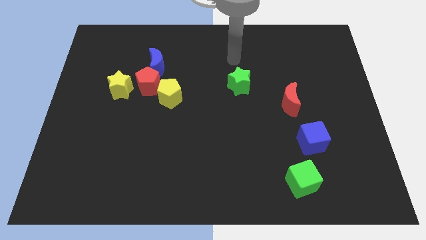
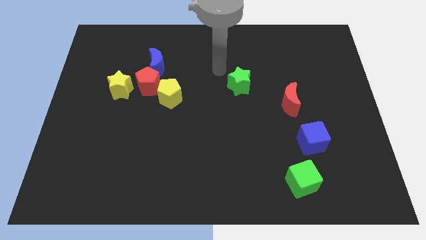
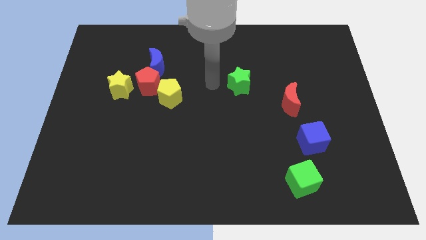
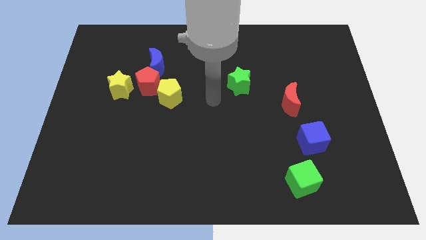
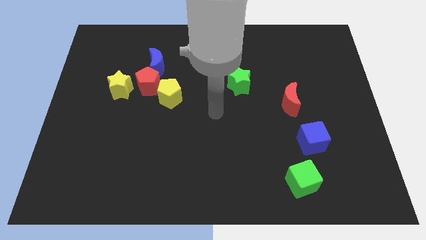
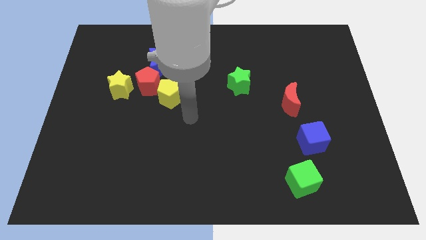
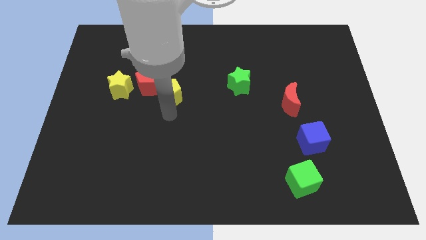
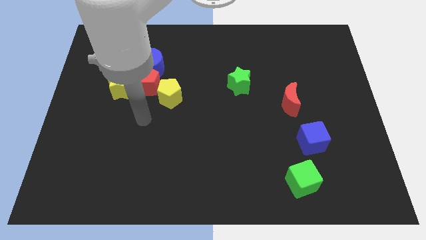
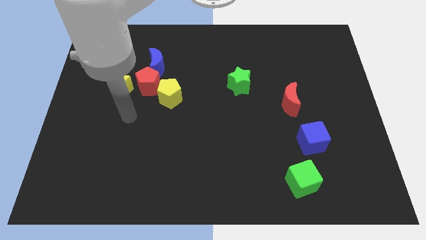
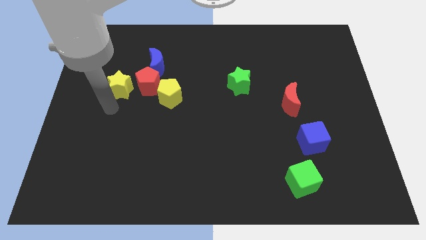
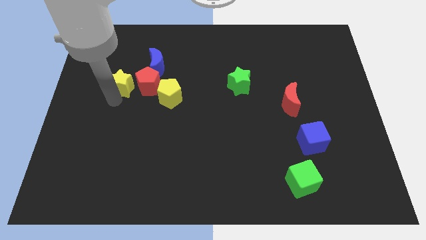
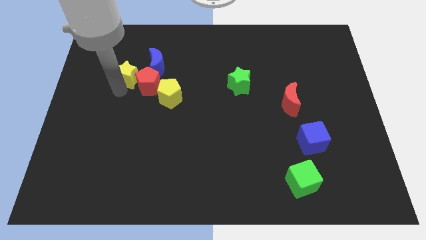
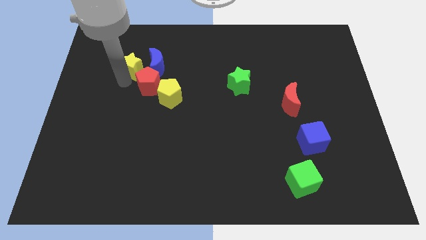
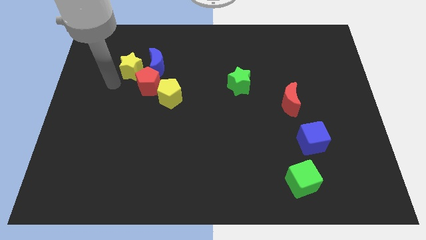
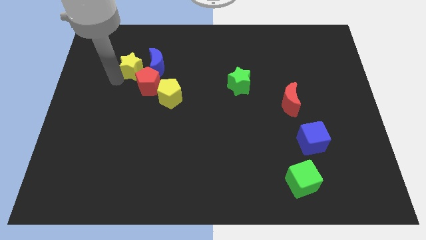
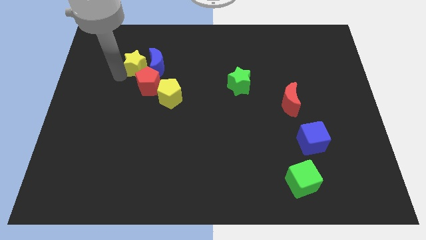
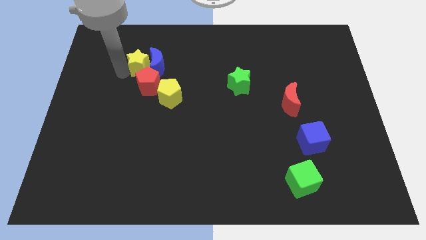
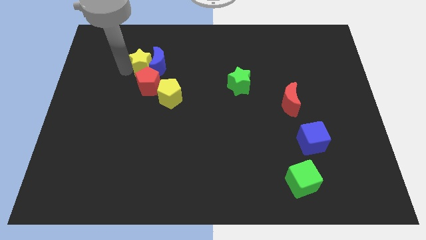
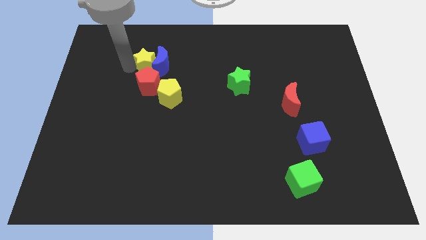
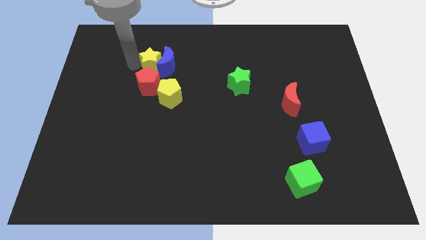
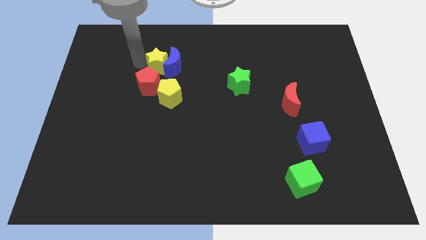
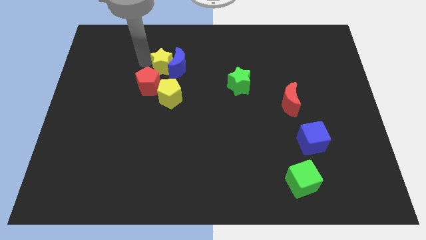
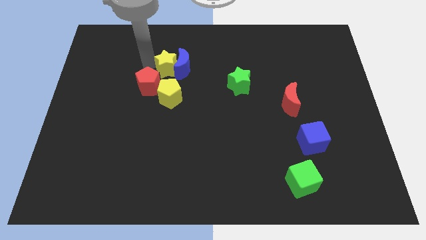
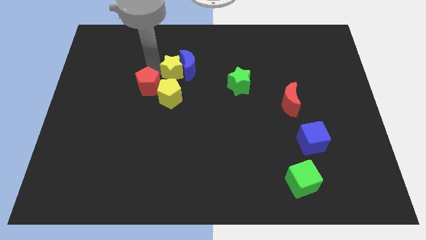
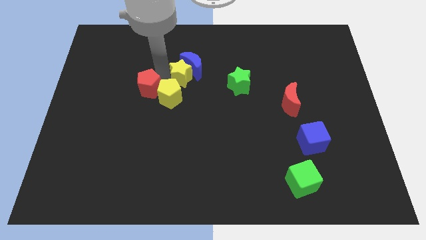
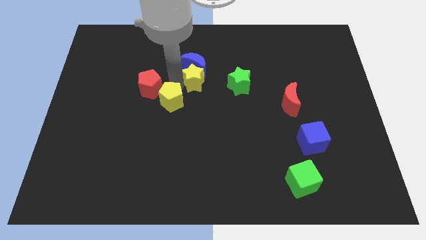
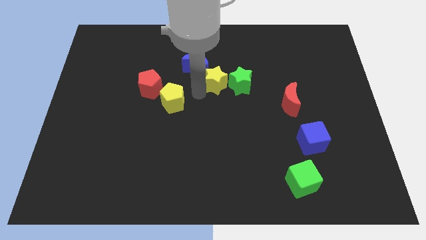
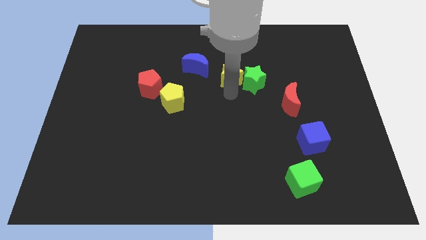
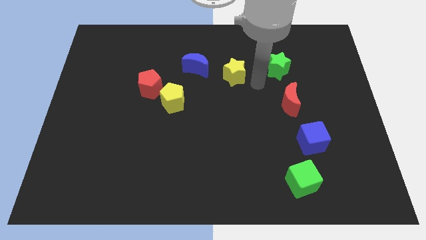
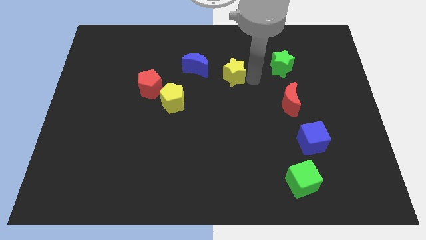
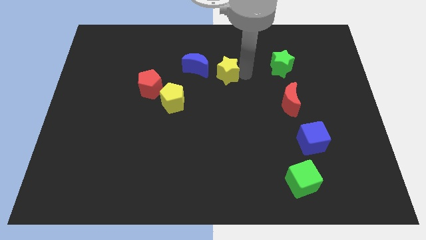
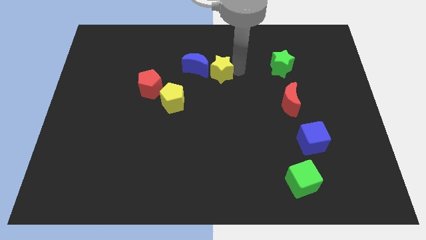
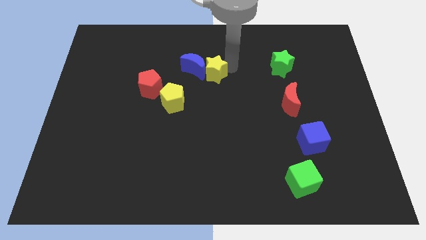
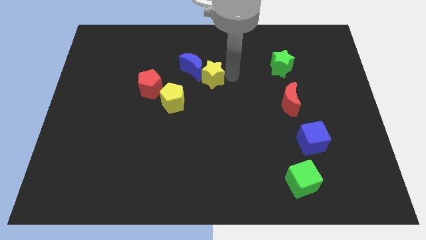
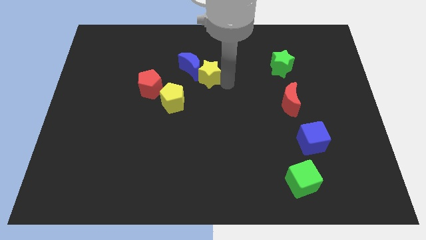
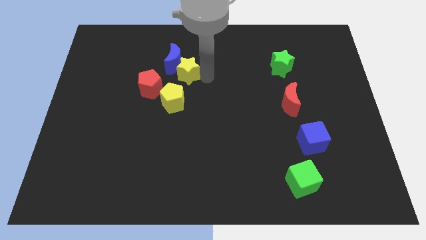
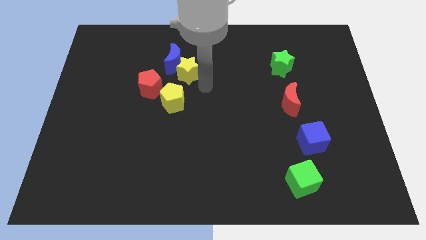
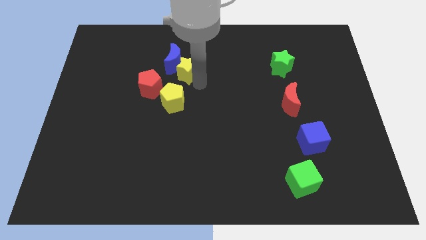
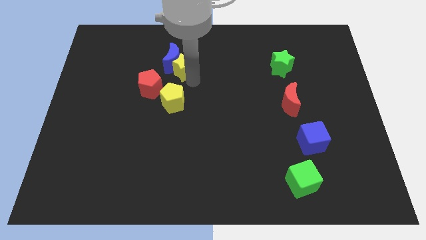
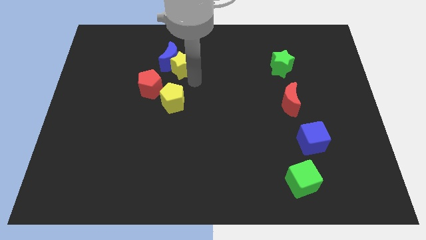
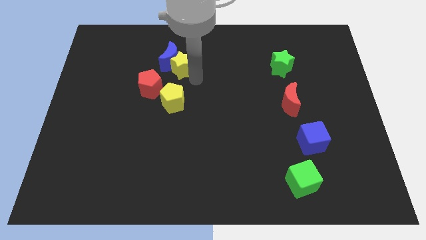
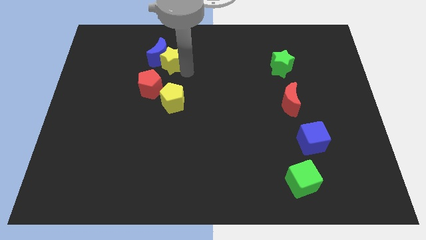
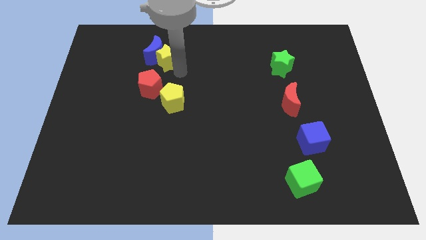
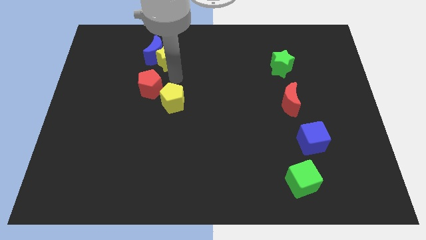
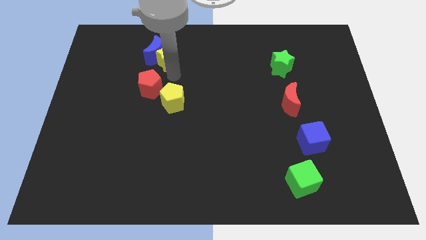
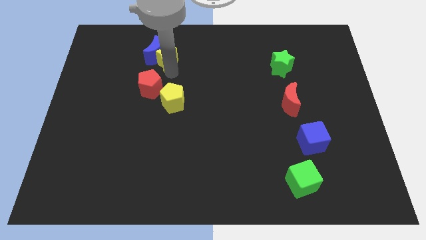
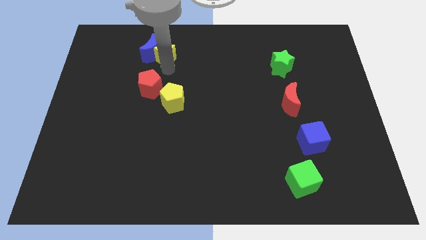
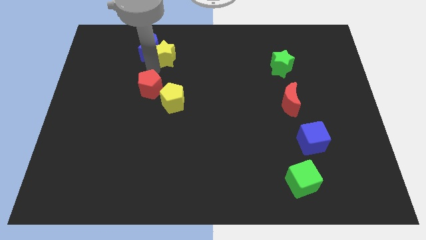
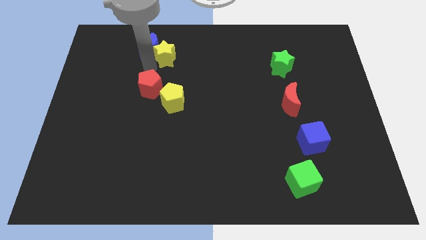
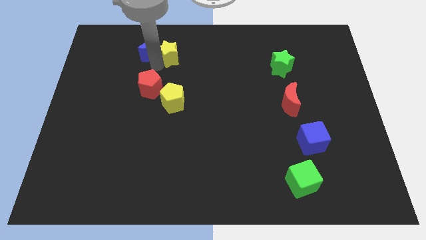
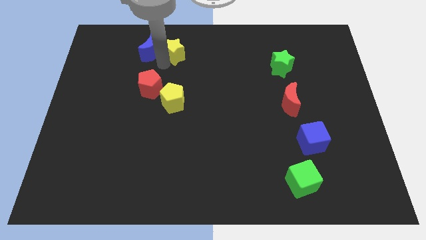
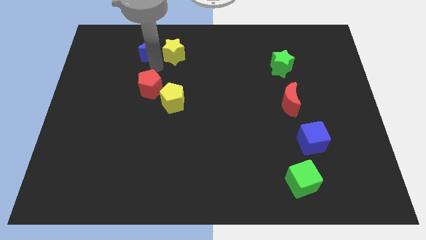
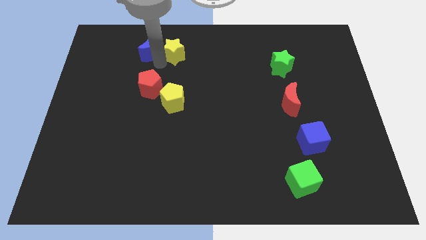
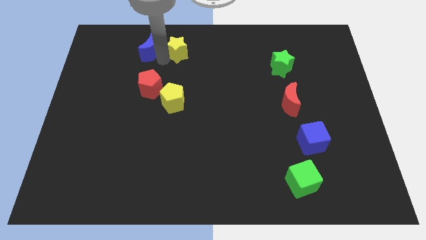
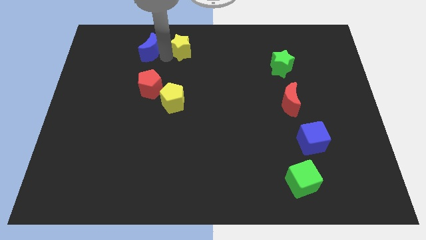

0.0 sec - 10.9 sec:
move the yellow star to the towards your base
